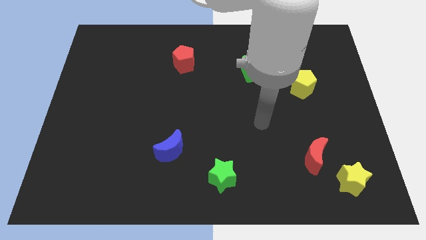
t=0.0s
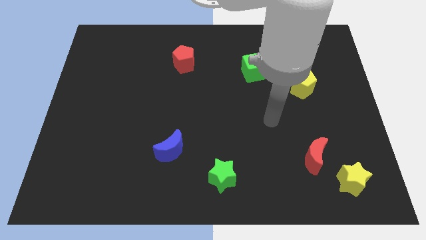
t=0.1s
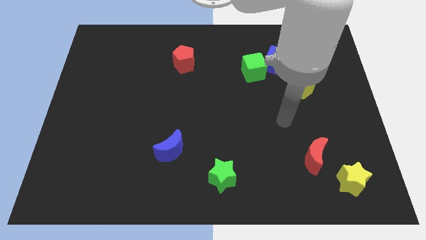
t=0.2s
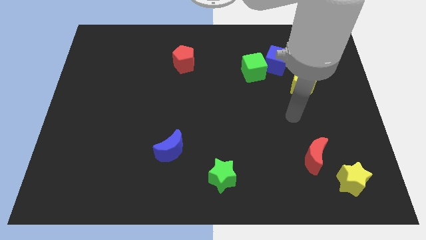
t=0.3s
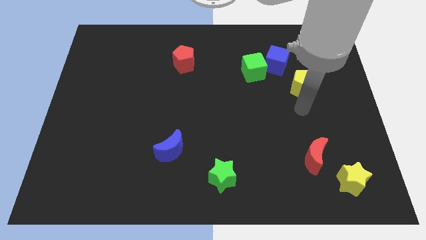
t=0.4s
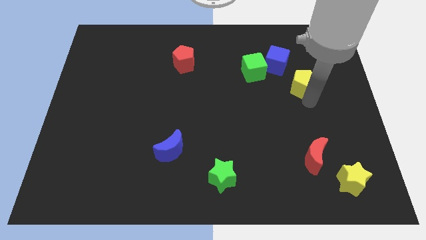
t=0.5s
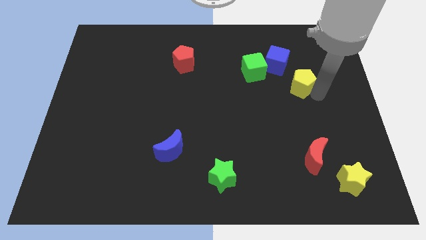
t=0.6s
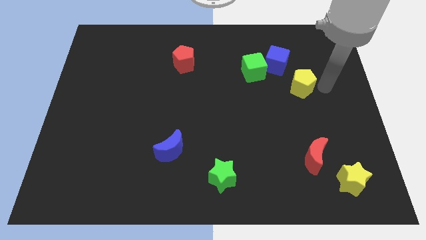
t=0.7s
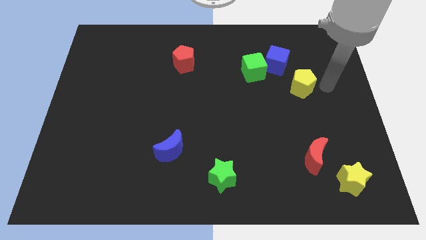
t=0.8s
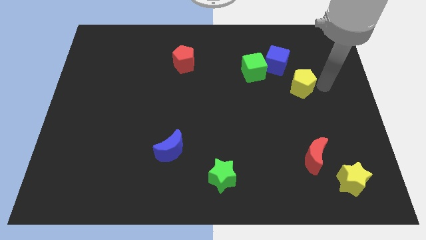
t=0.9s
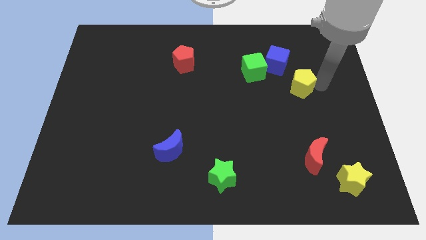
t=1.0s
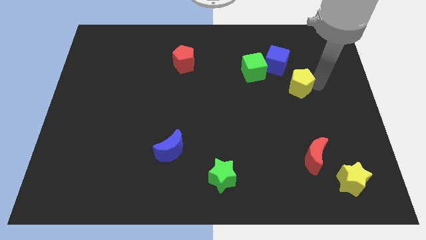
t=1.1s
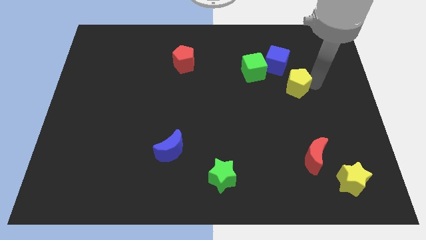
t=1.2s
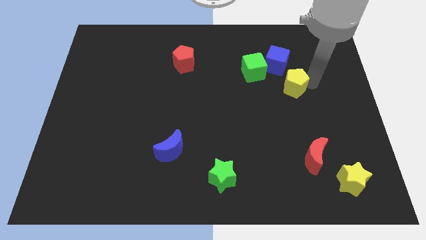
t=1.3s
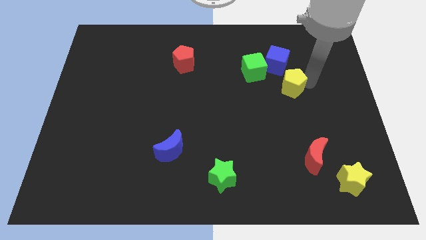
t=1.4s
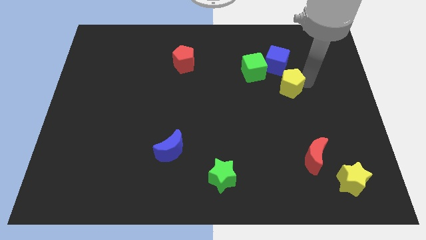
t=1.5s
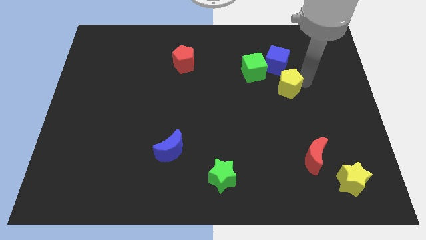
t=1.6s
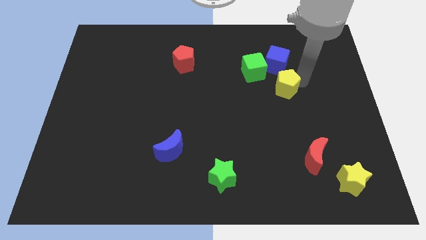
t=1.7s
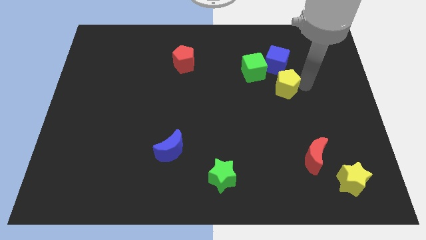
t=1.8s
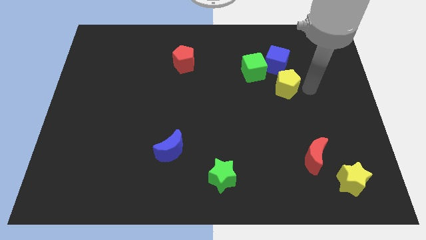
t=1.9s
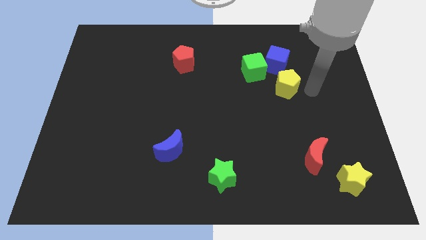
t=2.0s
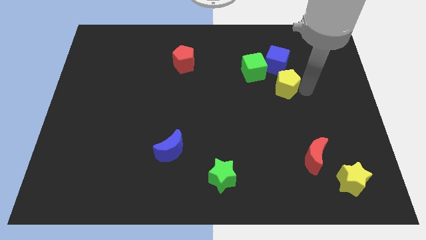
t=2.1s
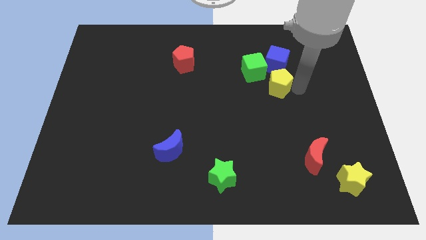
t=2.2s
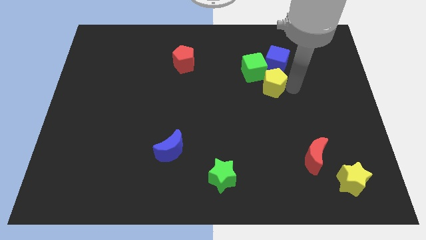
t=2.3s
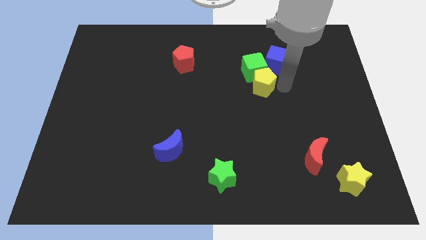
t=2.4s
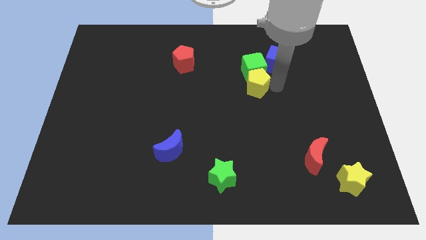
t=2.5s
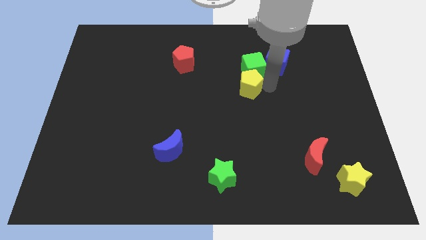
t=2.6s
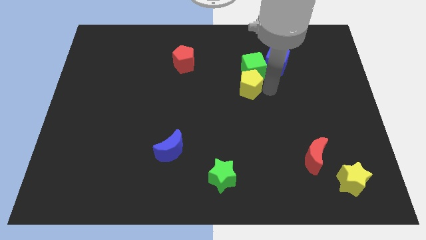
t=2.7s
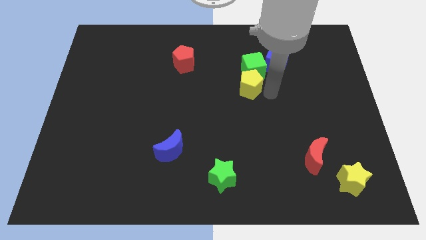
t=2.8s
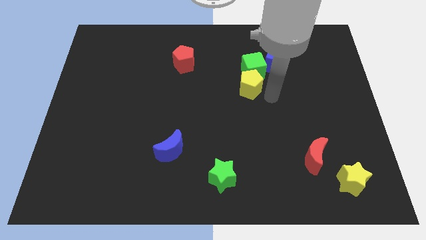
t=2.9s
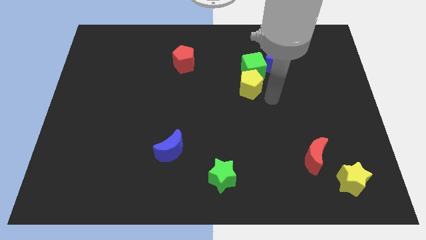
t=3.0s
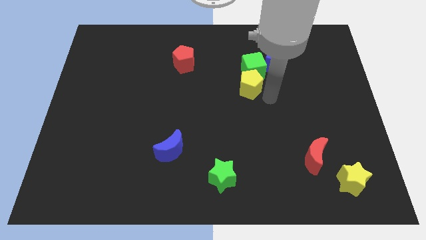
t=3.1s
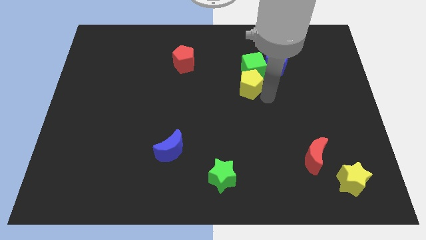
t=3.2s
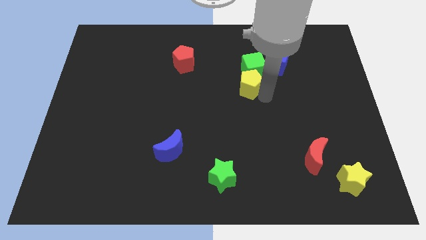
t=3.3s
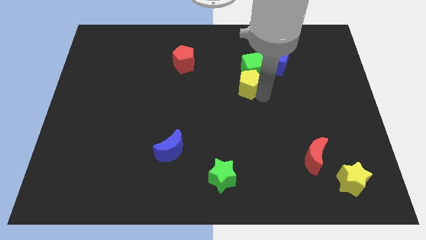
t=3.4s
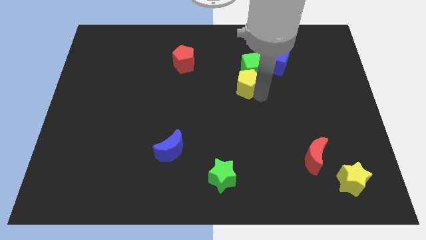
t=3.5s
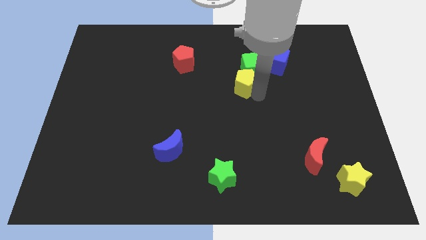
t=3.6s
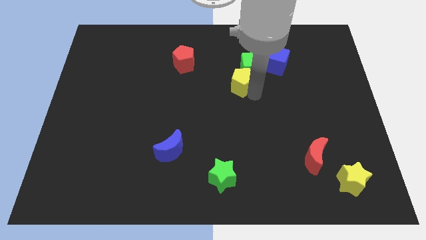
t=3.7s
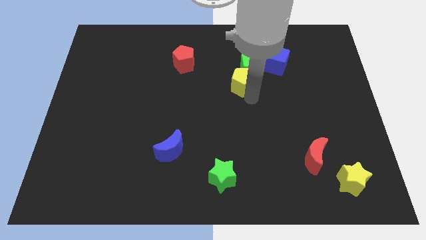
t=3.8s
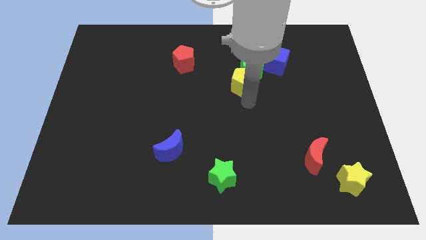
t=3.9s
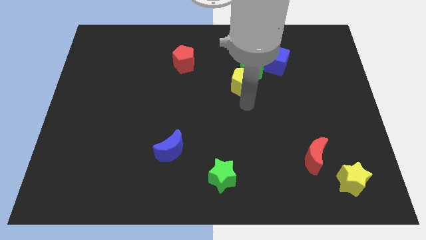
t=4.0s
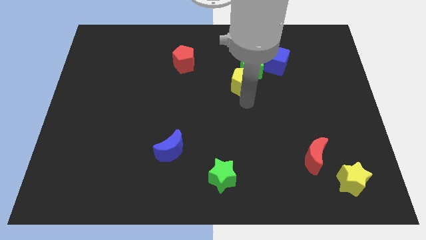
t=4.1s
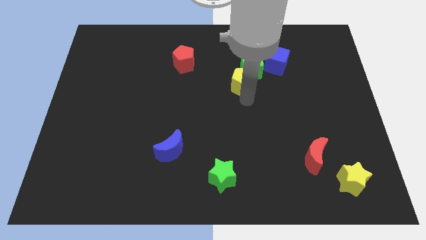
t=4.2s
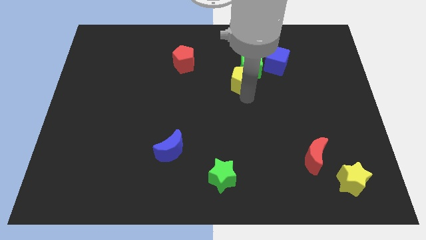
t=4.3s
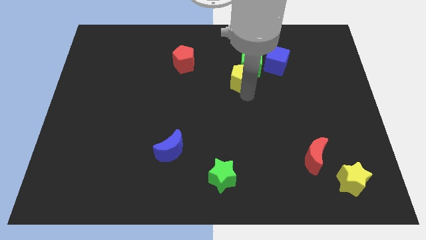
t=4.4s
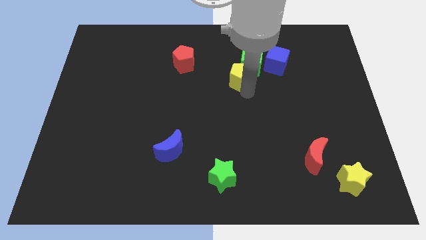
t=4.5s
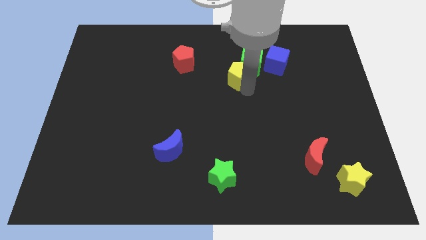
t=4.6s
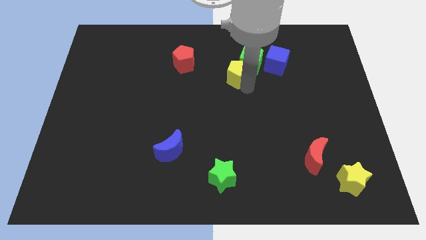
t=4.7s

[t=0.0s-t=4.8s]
put the yellow pentagon to the left side of the blue cube

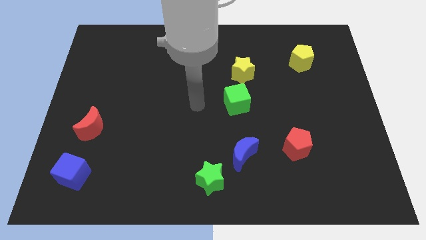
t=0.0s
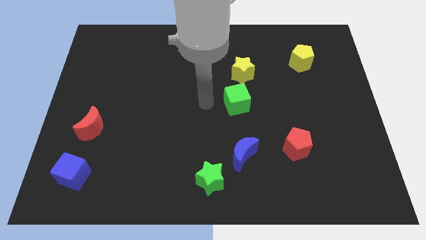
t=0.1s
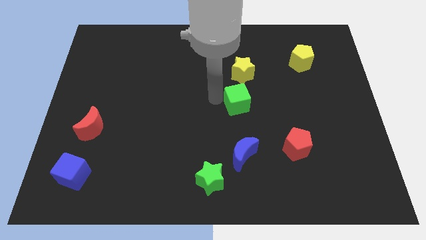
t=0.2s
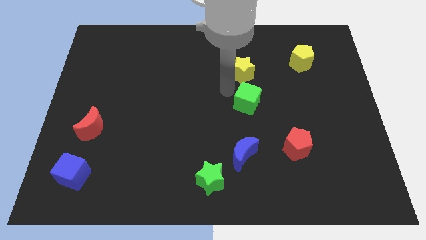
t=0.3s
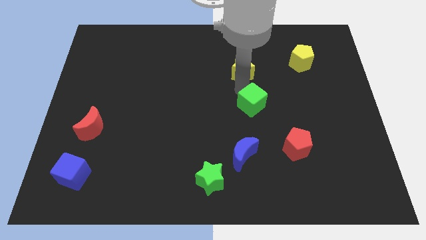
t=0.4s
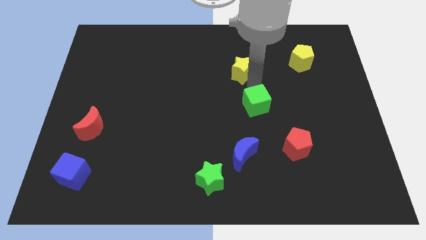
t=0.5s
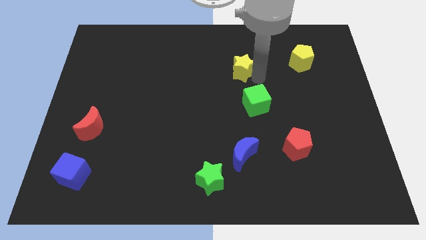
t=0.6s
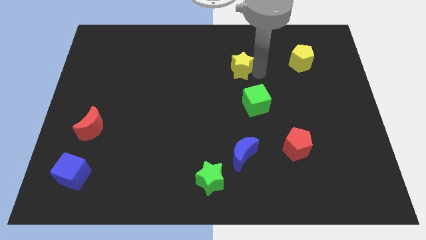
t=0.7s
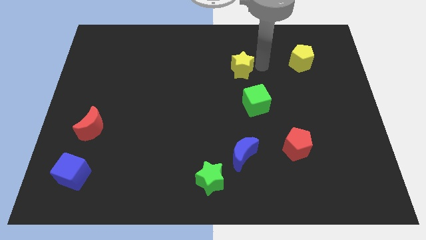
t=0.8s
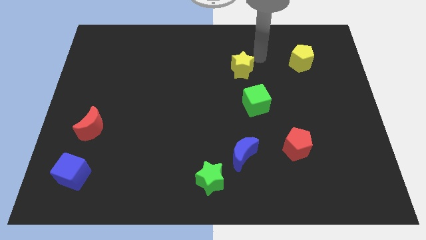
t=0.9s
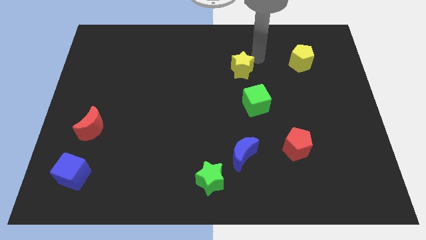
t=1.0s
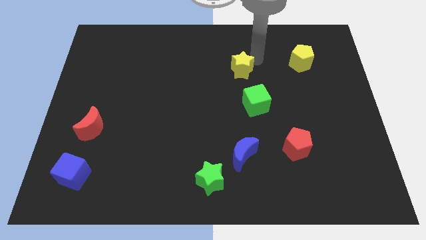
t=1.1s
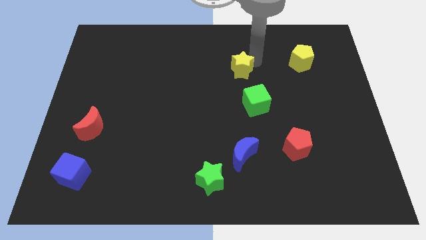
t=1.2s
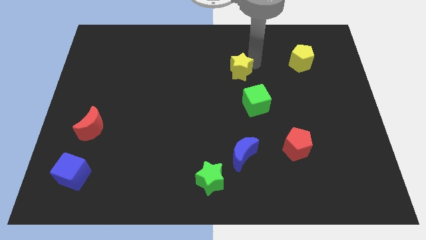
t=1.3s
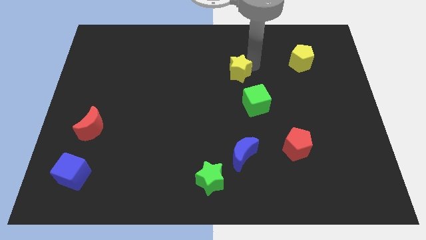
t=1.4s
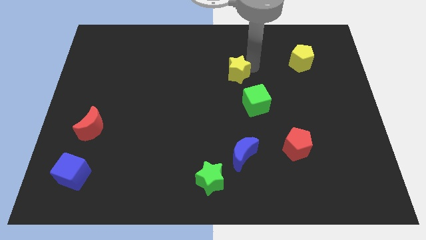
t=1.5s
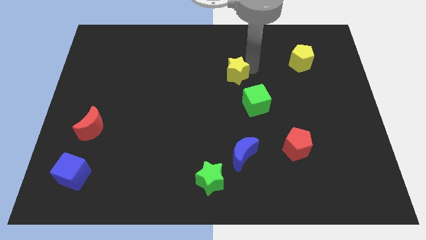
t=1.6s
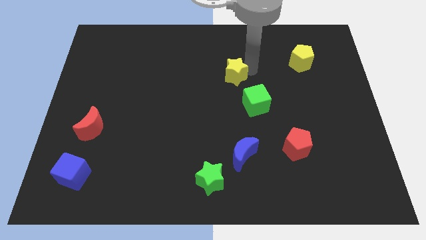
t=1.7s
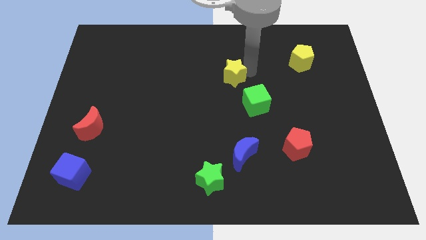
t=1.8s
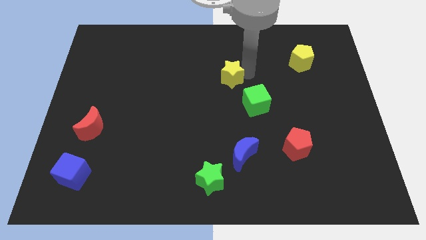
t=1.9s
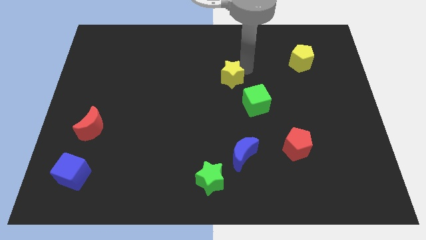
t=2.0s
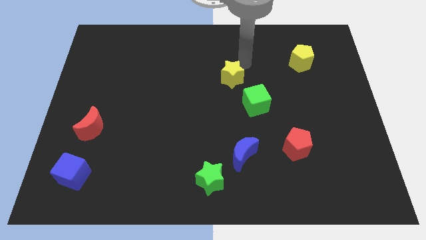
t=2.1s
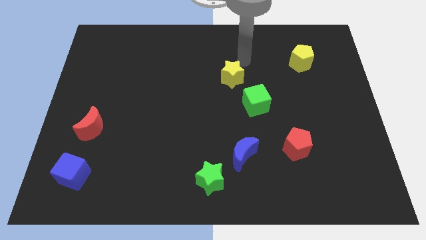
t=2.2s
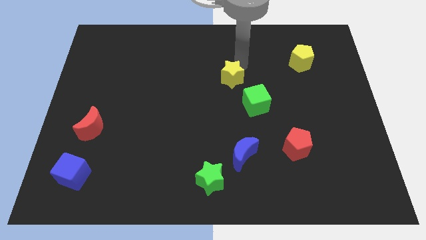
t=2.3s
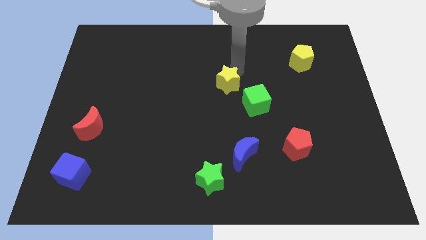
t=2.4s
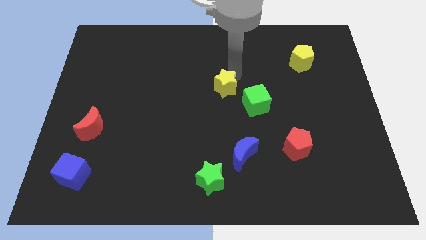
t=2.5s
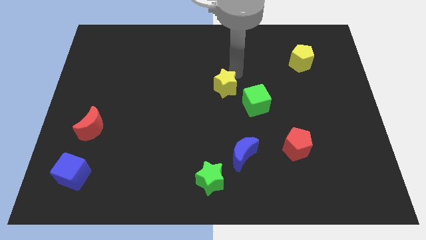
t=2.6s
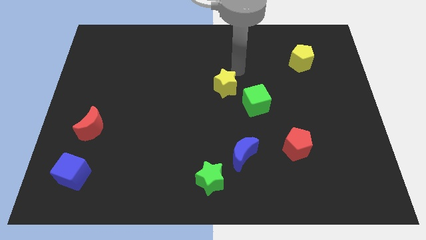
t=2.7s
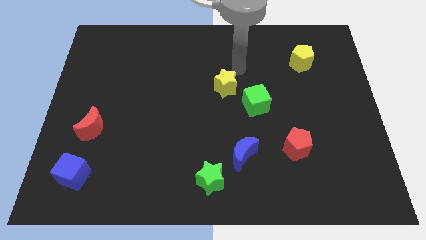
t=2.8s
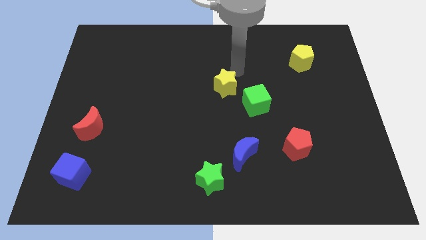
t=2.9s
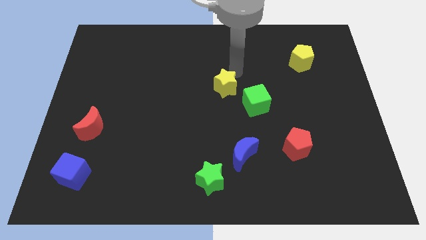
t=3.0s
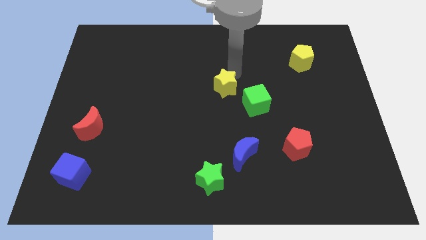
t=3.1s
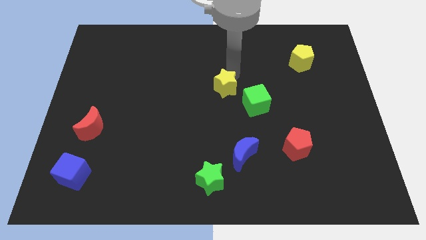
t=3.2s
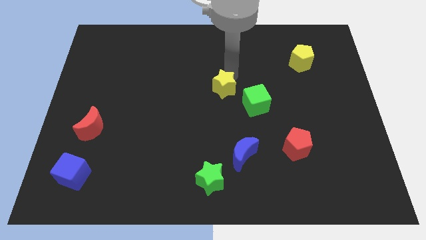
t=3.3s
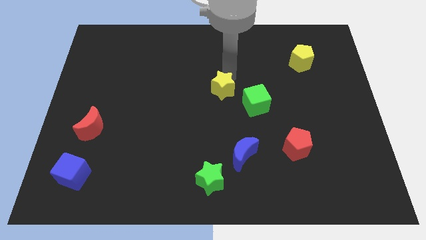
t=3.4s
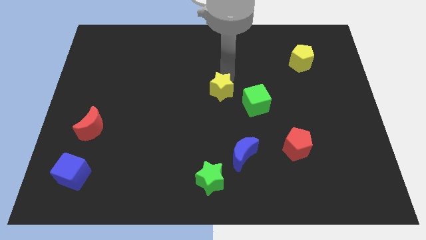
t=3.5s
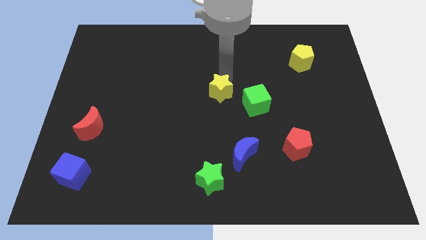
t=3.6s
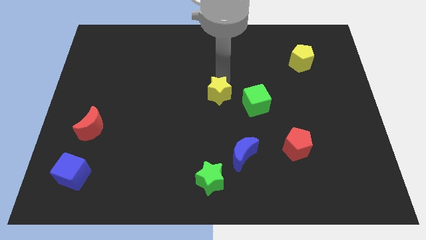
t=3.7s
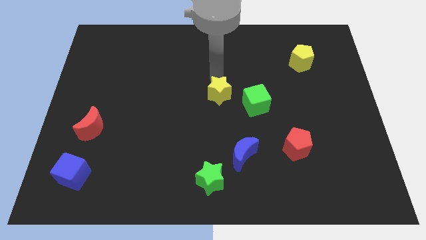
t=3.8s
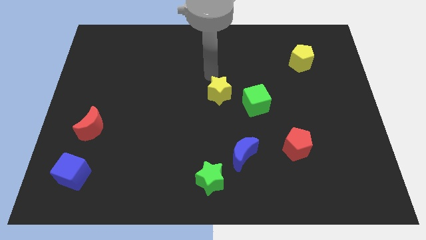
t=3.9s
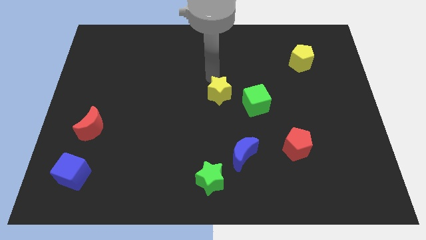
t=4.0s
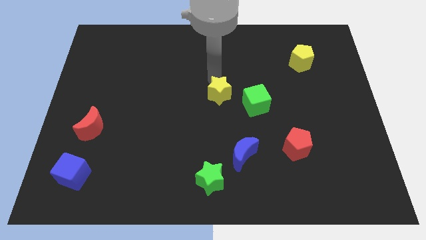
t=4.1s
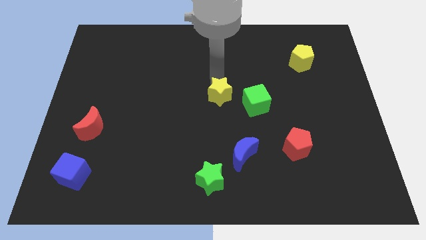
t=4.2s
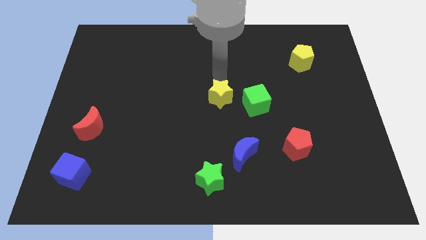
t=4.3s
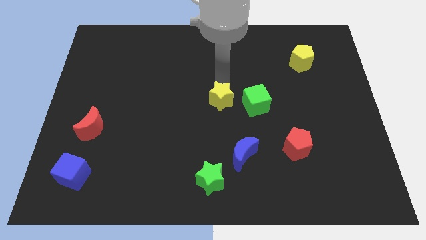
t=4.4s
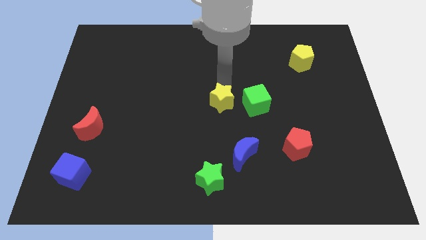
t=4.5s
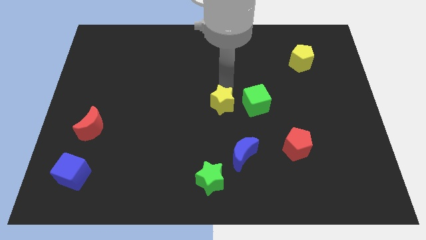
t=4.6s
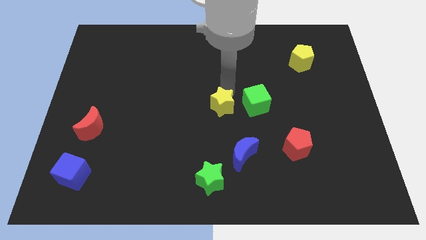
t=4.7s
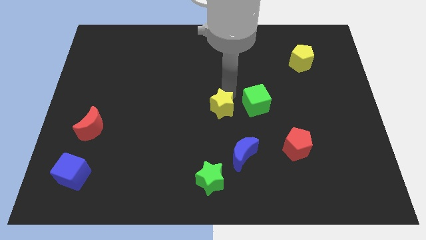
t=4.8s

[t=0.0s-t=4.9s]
move the yellow star to the bottom left of the green cube
